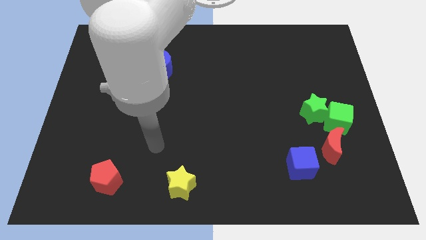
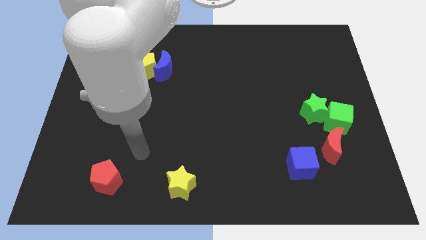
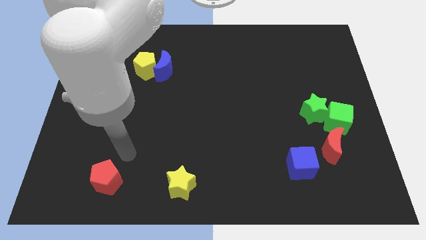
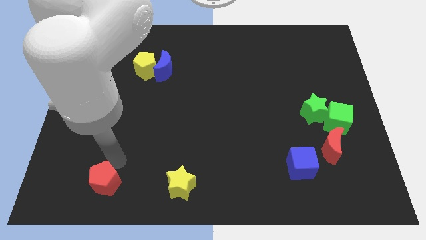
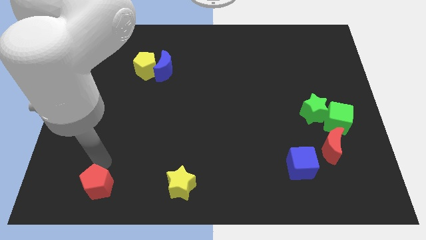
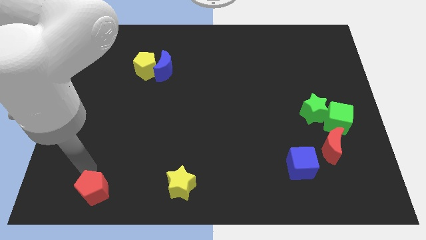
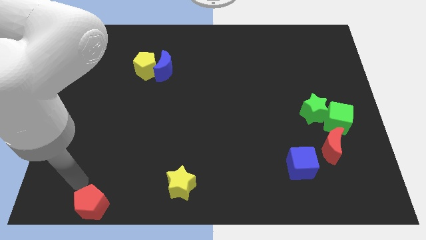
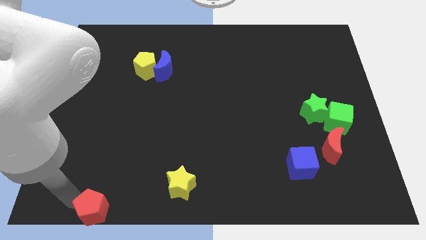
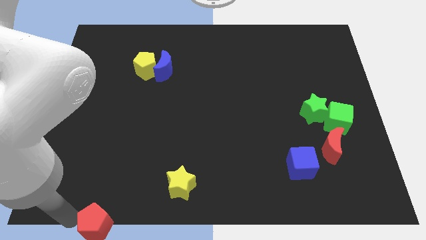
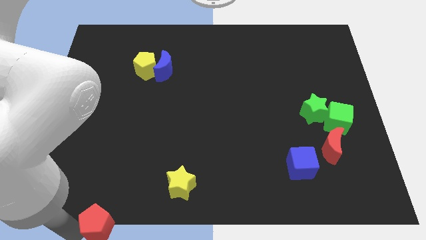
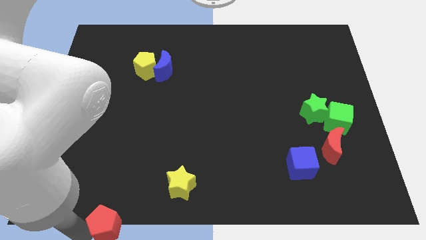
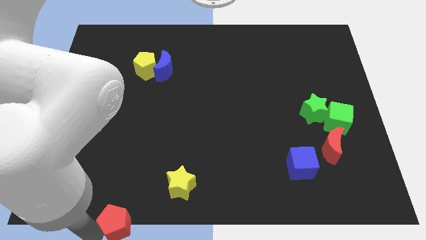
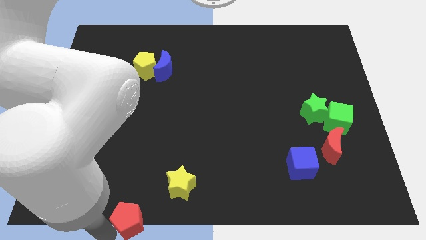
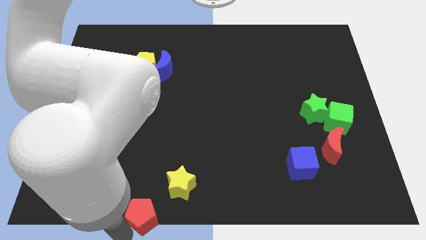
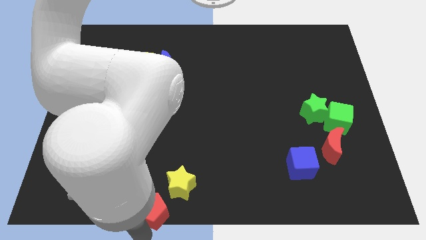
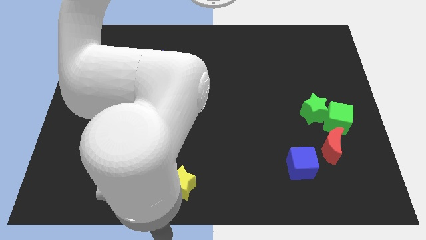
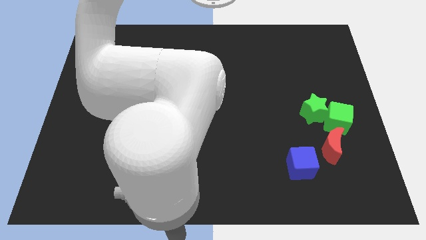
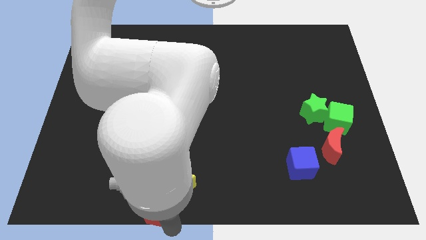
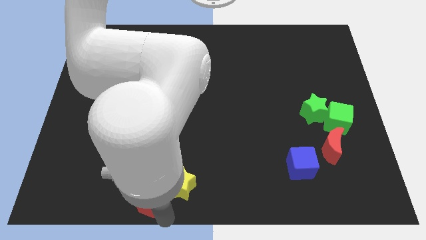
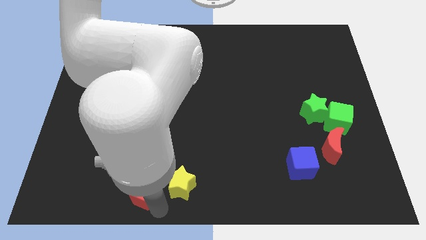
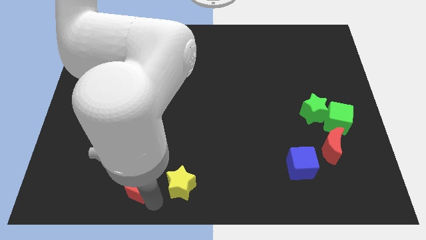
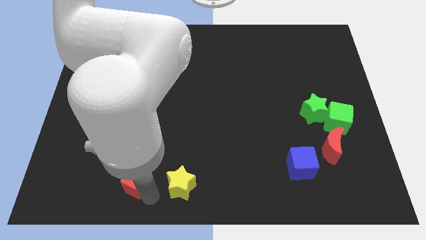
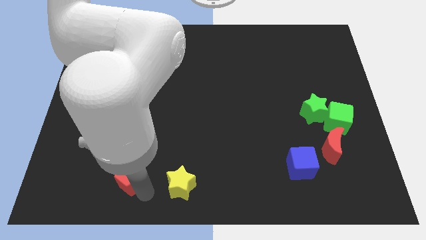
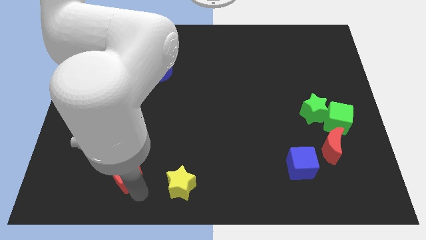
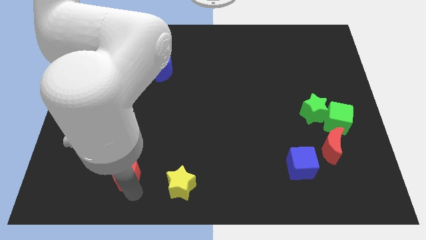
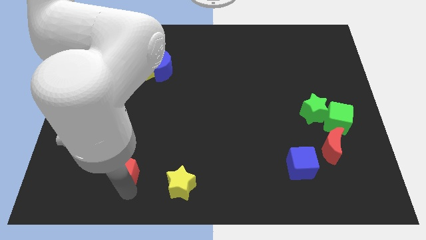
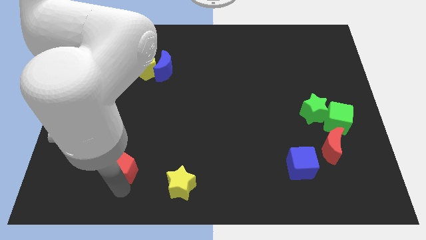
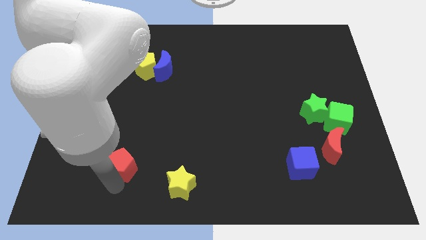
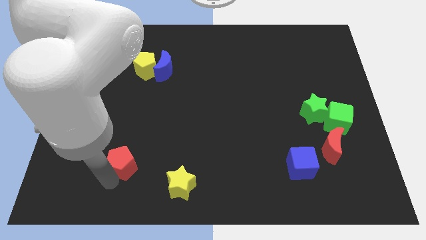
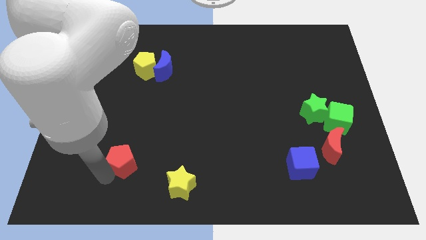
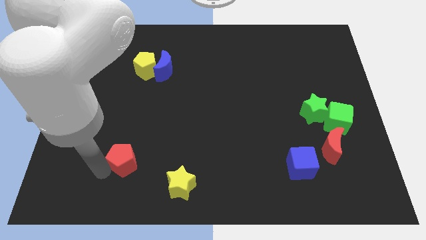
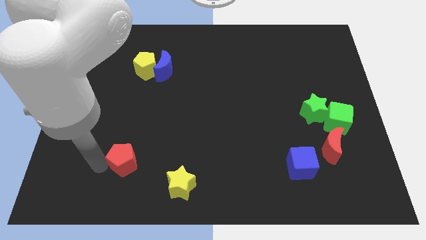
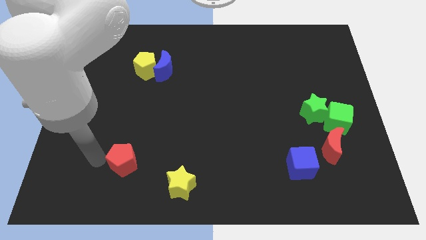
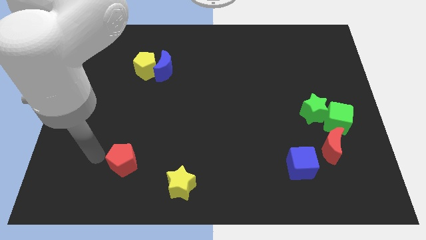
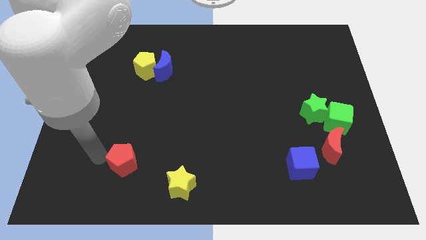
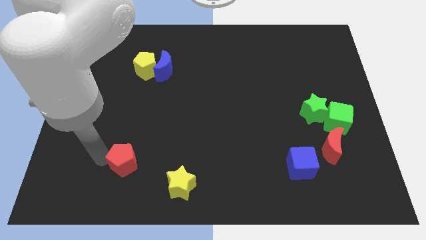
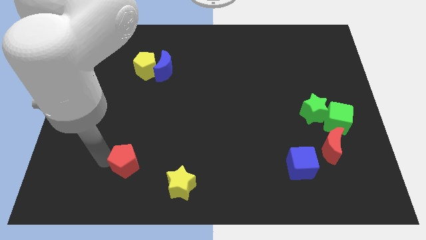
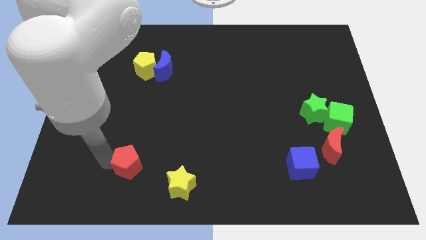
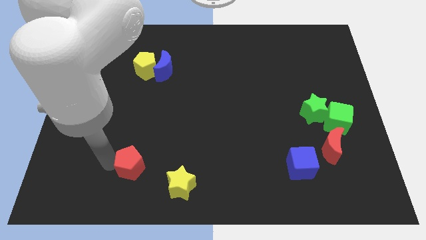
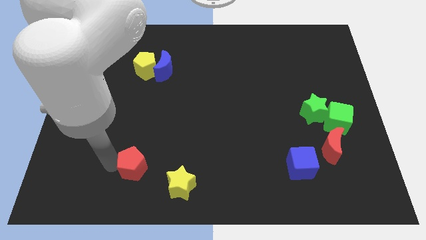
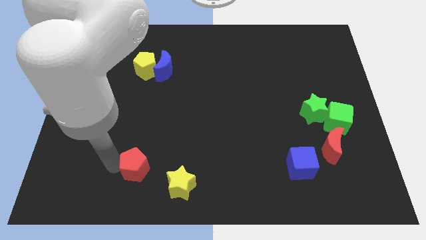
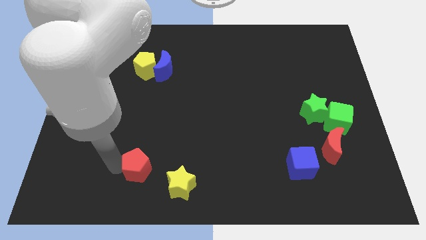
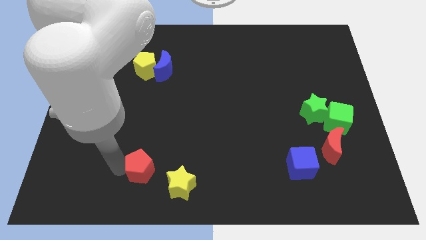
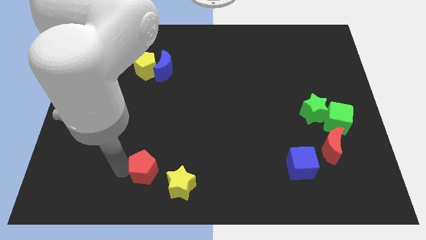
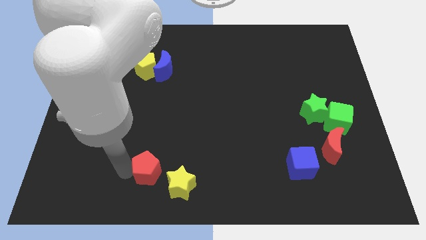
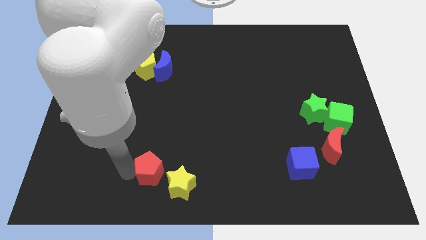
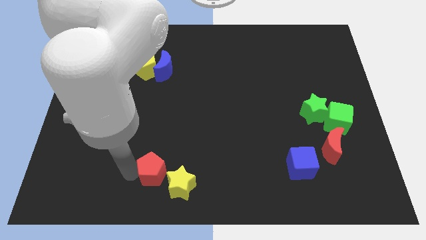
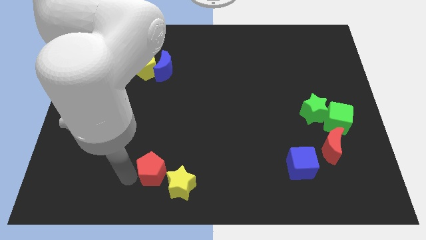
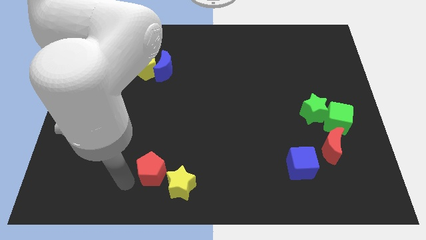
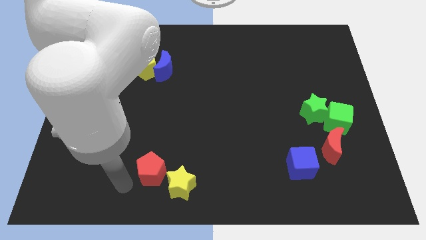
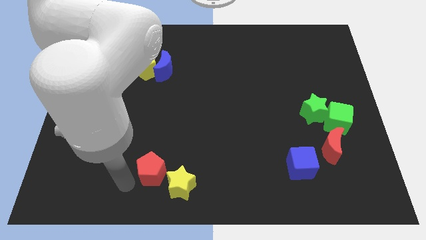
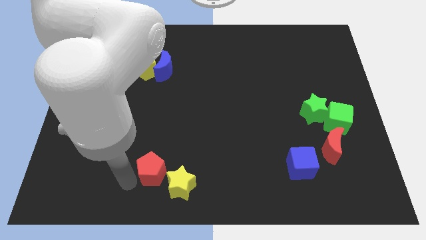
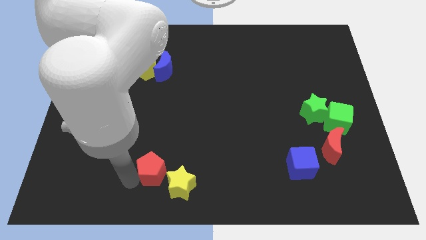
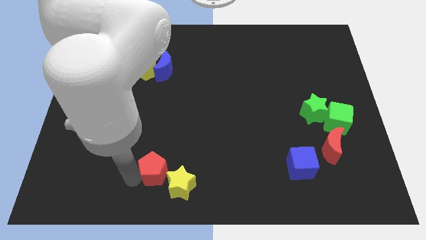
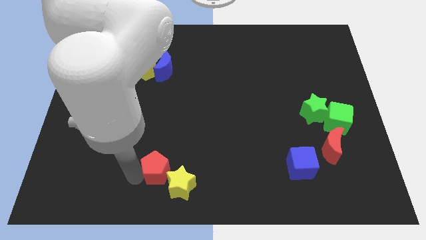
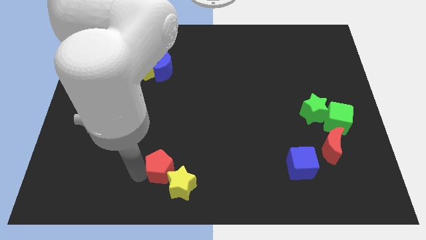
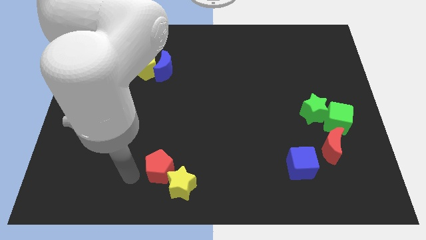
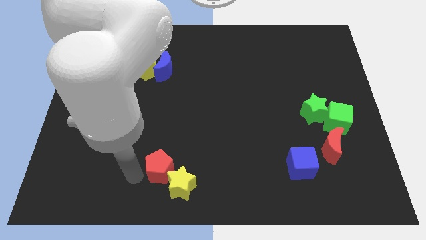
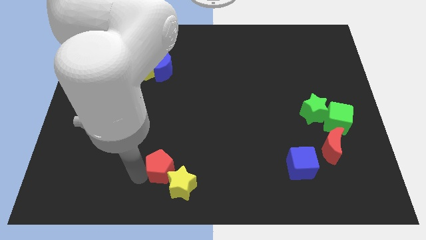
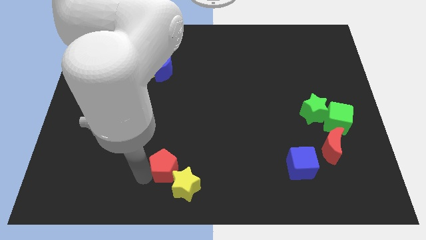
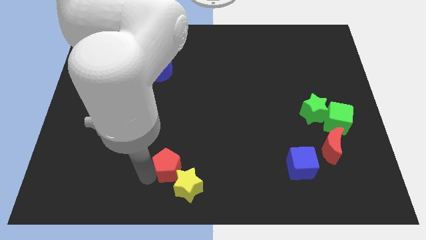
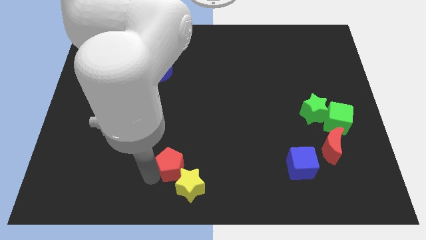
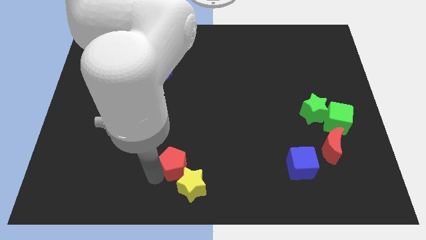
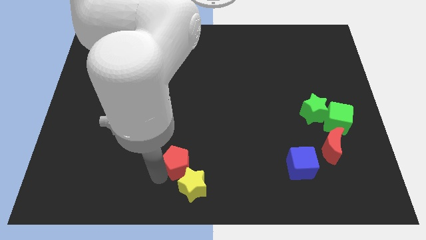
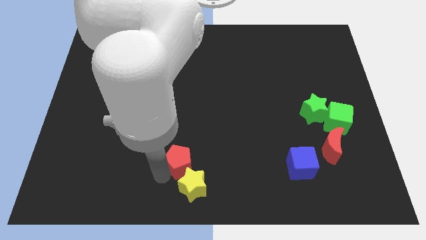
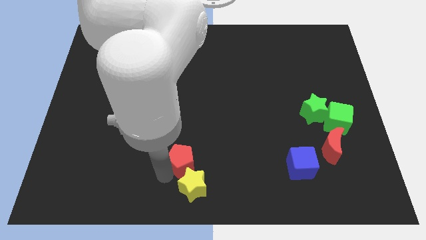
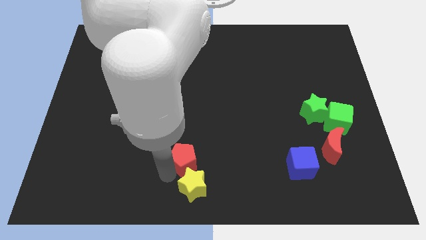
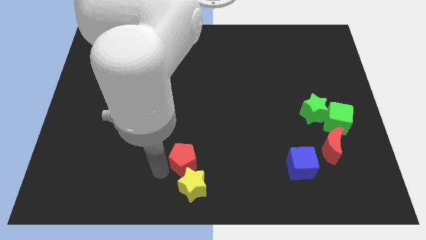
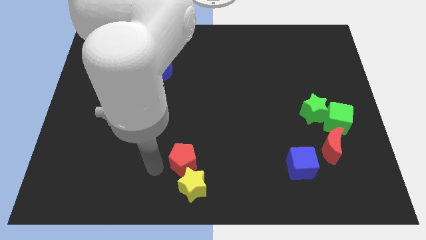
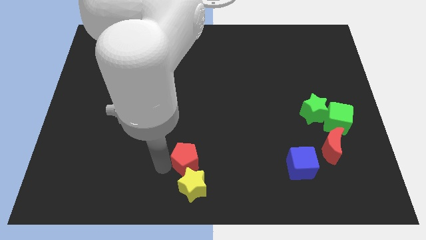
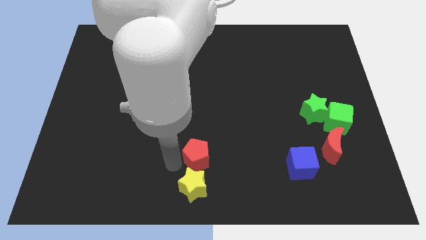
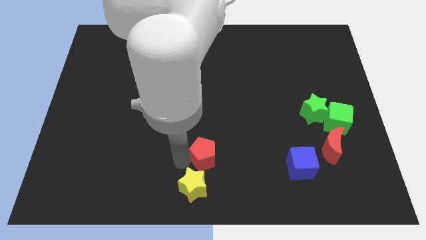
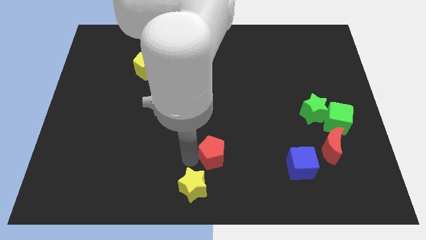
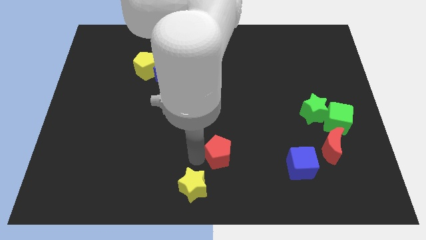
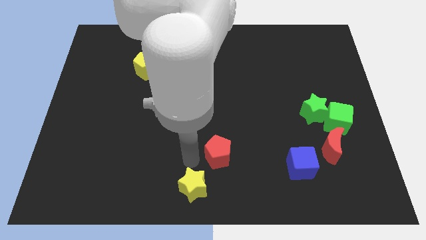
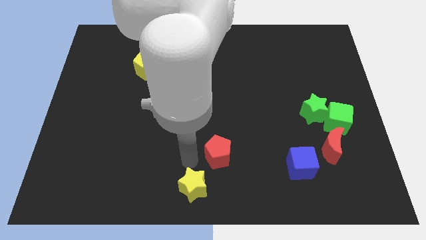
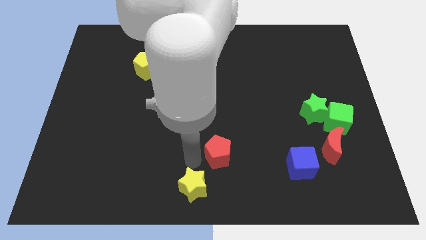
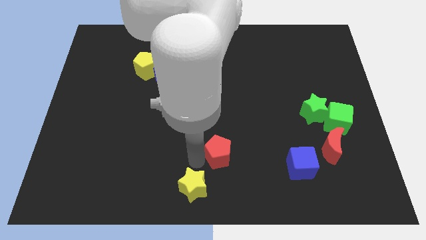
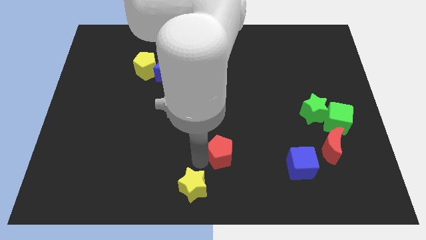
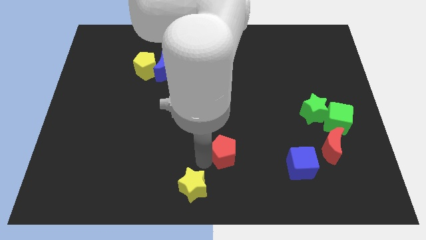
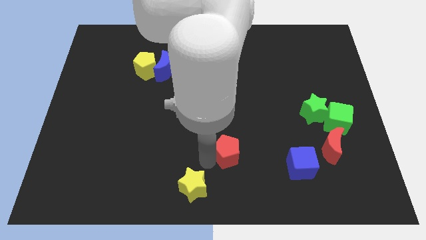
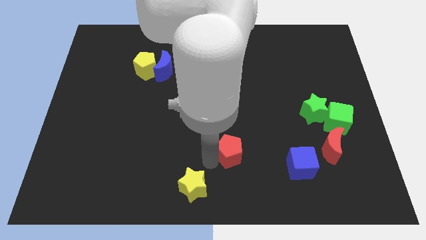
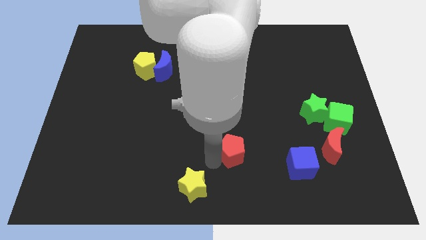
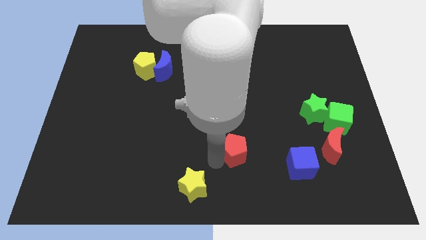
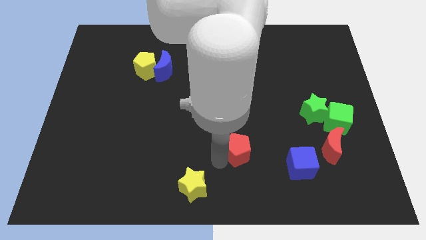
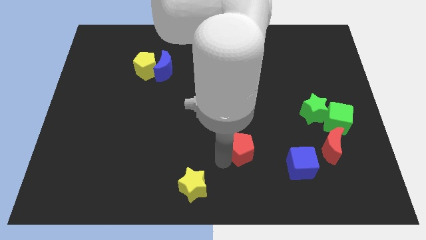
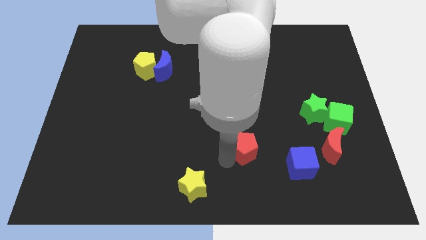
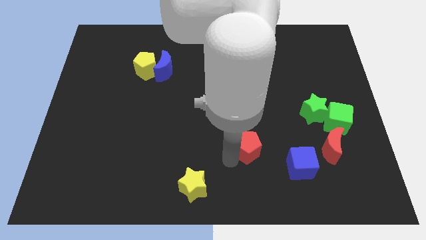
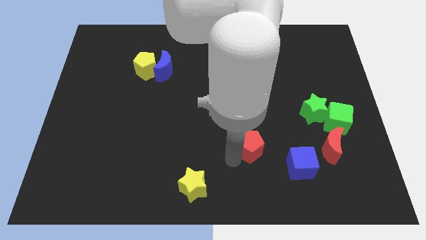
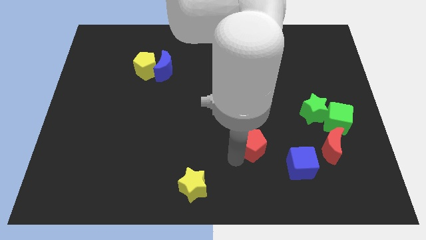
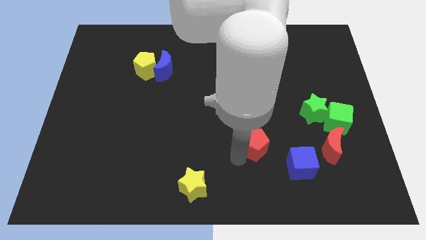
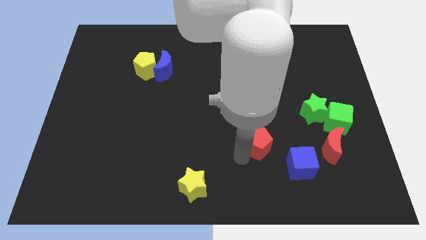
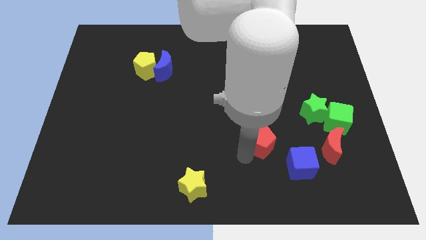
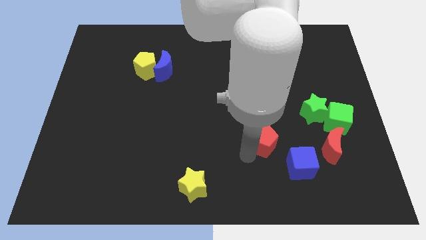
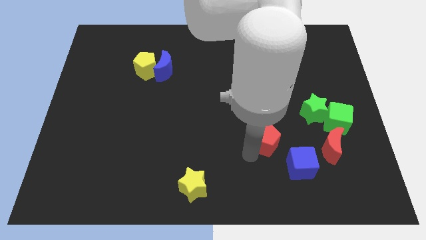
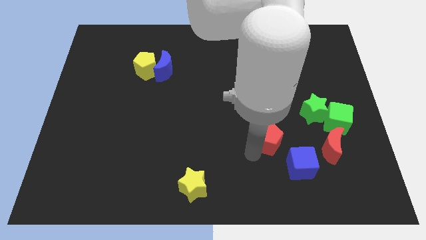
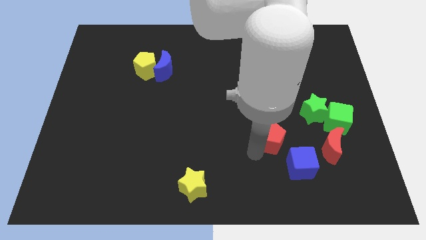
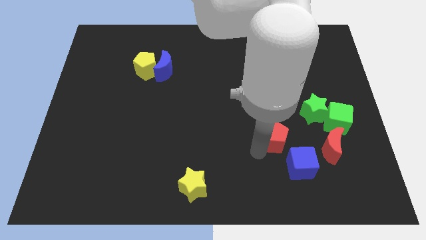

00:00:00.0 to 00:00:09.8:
put the red pentagon diagonally down and to the left of the green star
